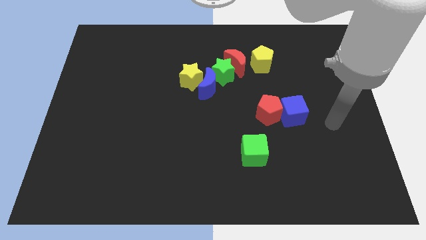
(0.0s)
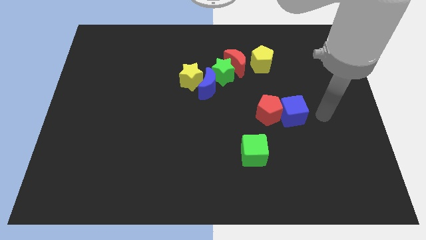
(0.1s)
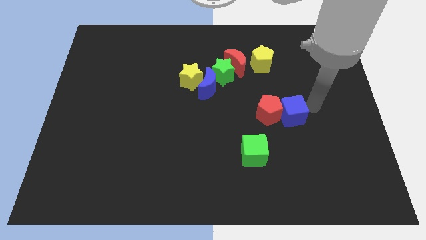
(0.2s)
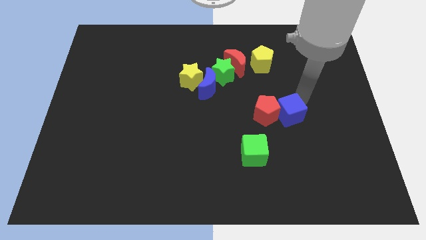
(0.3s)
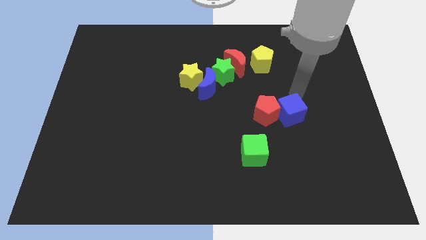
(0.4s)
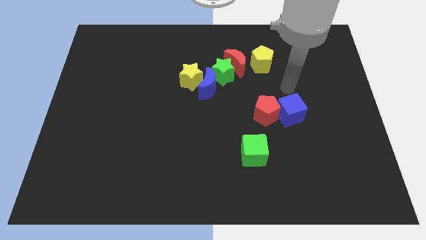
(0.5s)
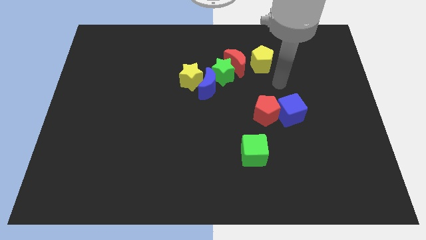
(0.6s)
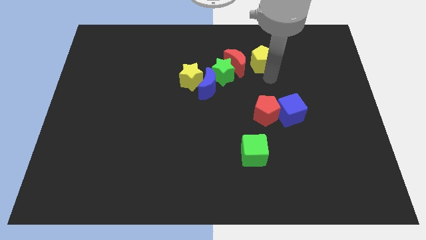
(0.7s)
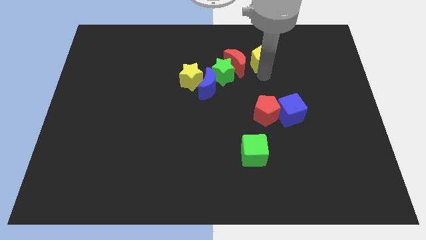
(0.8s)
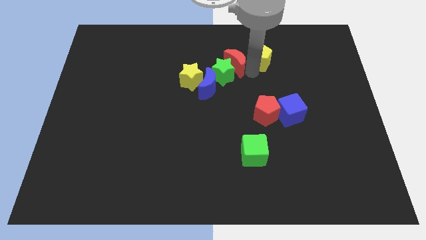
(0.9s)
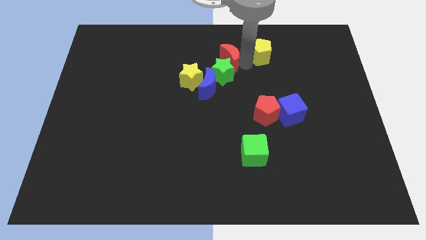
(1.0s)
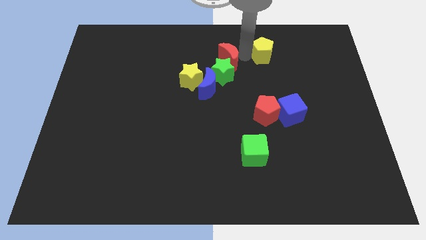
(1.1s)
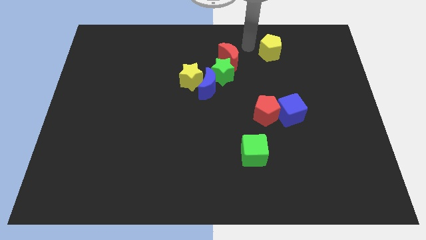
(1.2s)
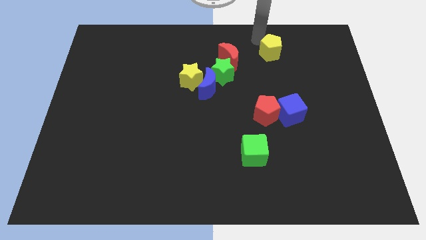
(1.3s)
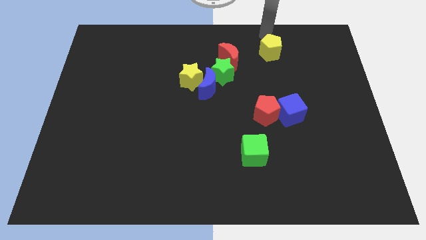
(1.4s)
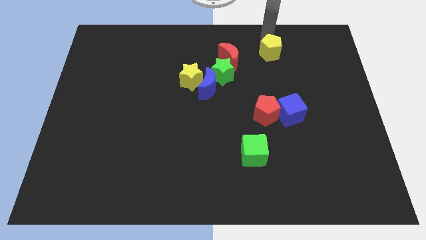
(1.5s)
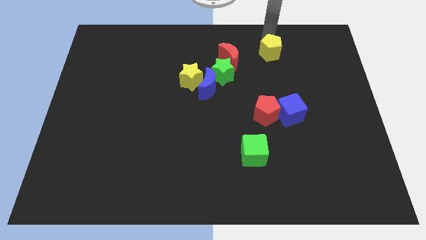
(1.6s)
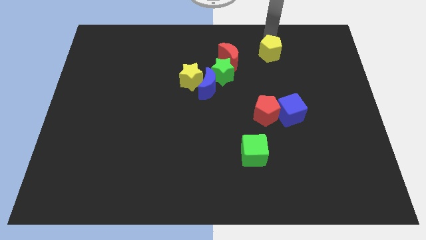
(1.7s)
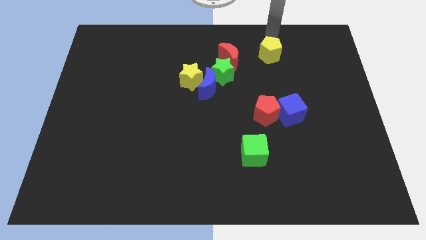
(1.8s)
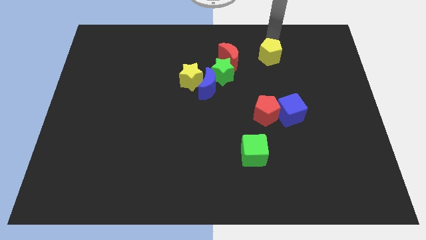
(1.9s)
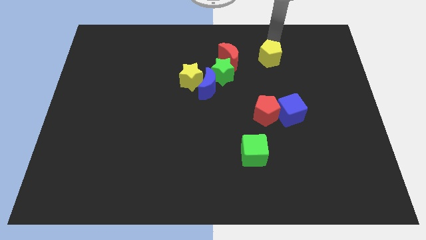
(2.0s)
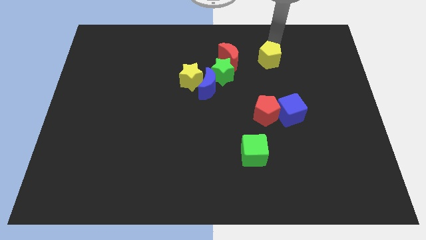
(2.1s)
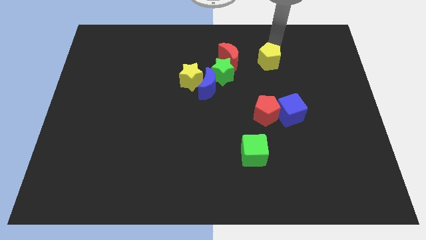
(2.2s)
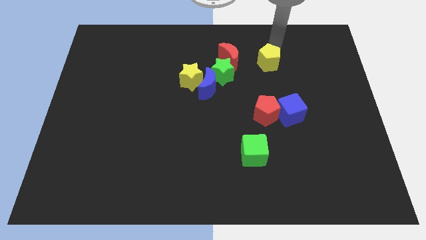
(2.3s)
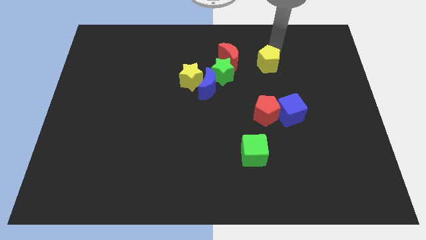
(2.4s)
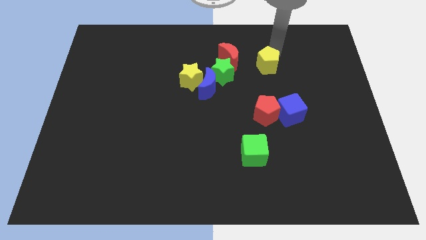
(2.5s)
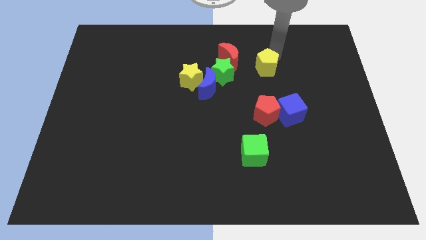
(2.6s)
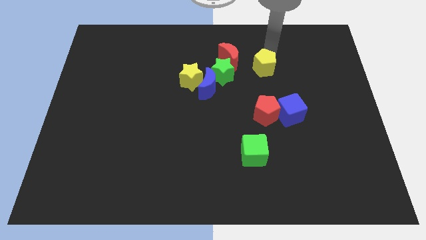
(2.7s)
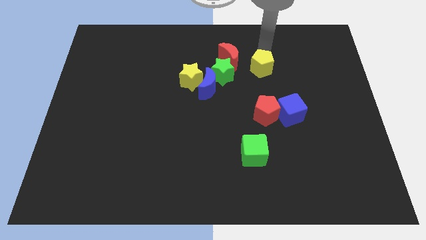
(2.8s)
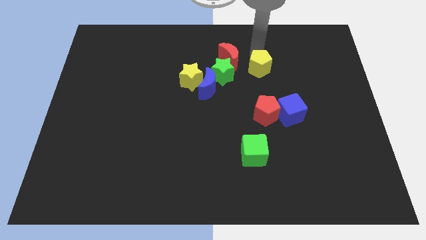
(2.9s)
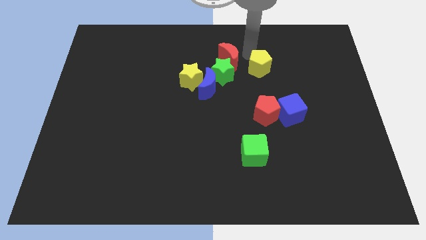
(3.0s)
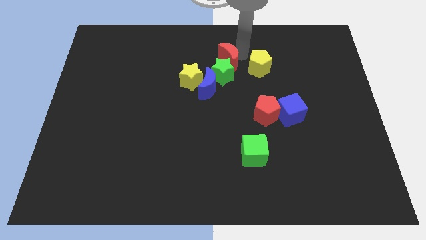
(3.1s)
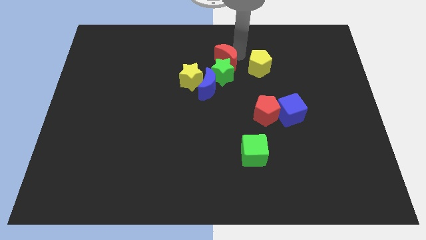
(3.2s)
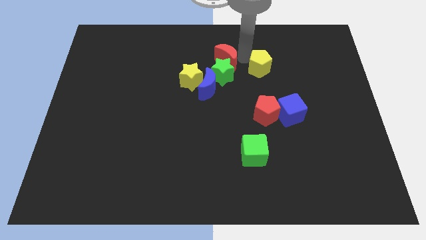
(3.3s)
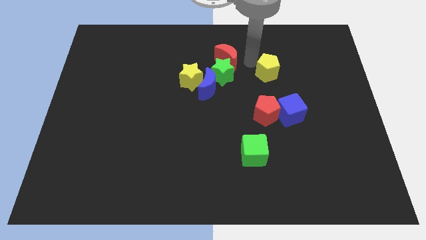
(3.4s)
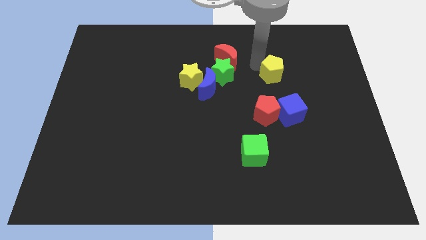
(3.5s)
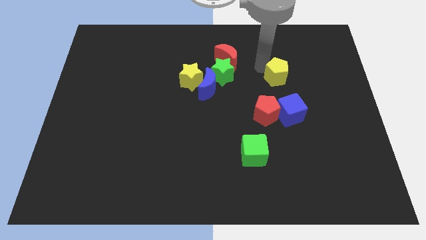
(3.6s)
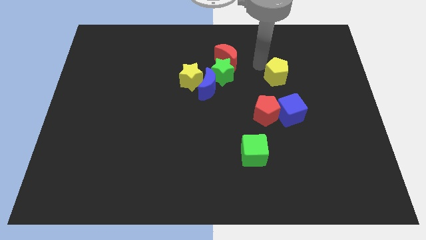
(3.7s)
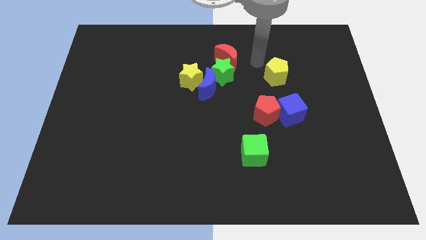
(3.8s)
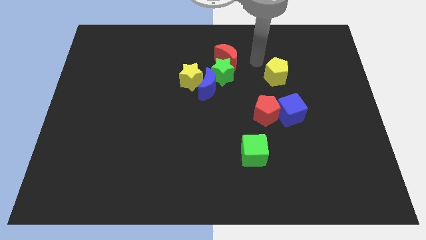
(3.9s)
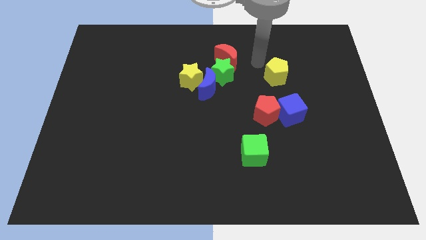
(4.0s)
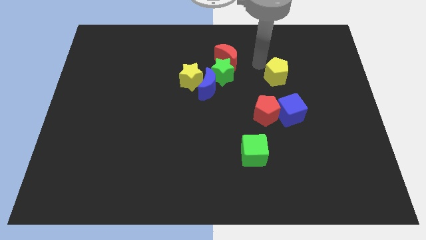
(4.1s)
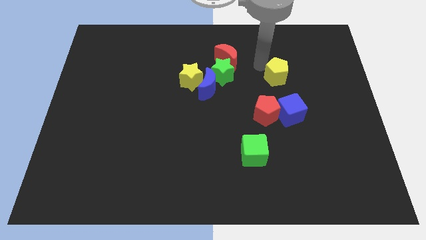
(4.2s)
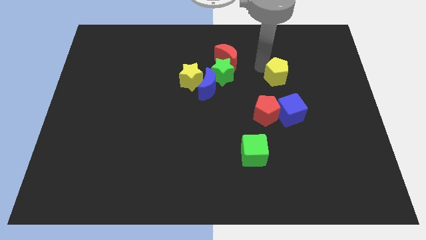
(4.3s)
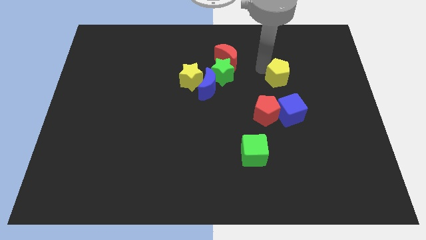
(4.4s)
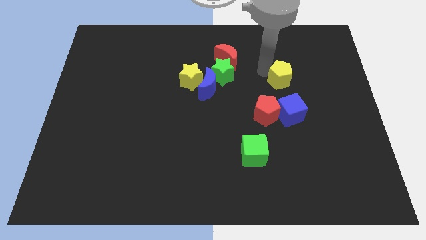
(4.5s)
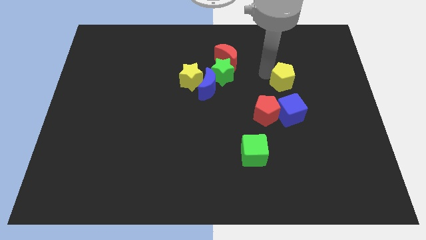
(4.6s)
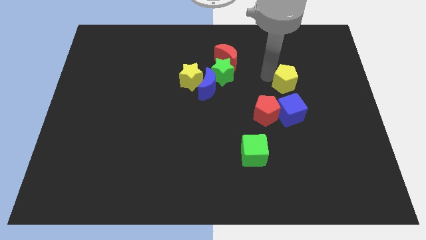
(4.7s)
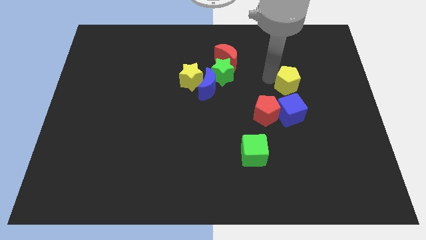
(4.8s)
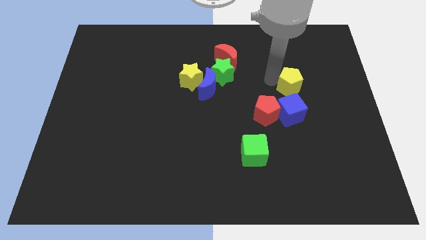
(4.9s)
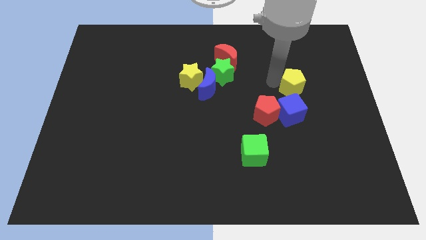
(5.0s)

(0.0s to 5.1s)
move the yellow pentagon diagonally up and to the right of the blue cube

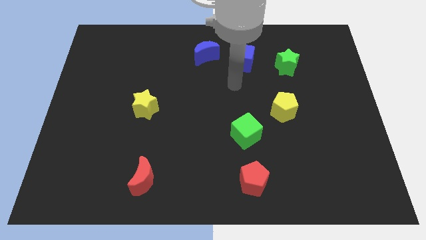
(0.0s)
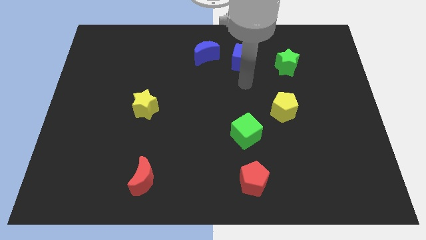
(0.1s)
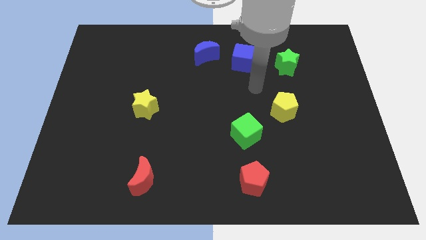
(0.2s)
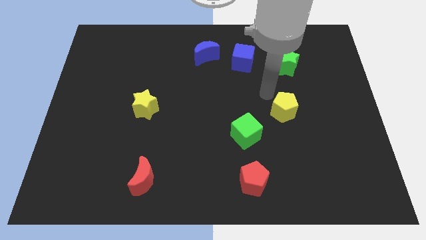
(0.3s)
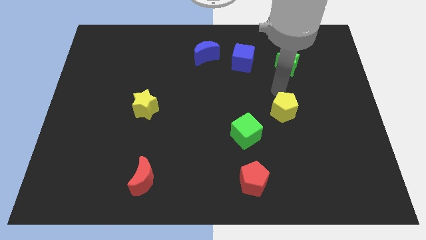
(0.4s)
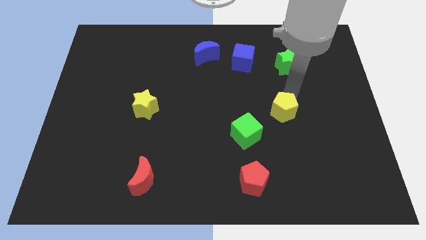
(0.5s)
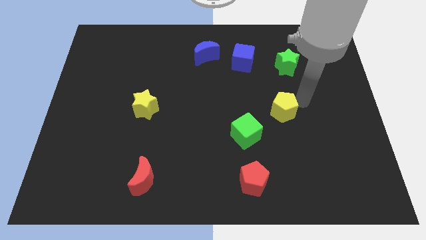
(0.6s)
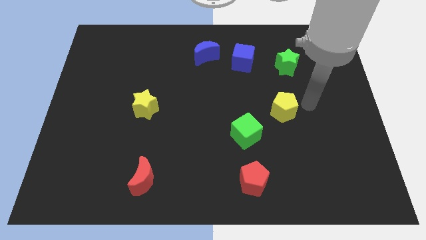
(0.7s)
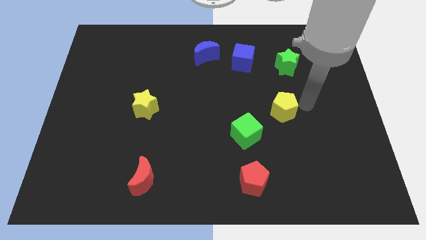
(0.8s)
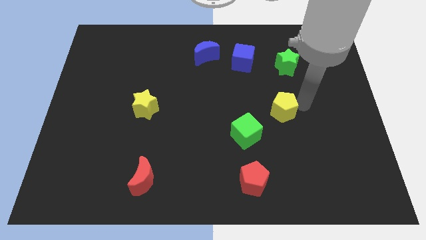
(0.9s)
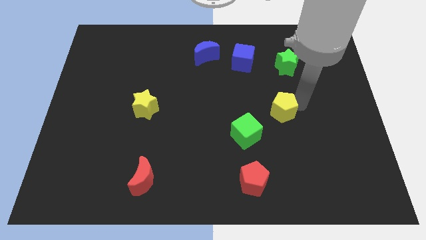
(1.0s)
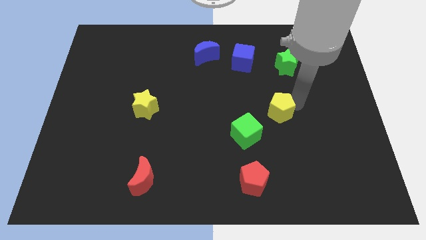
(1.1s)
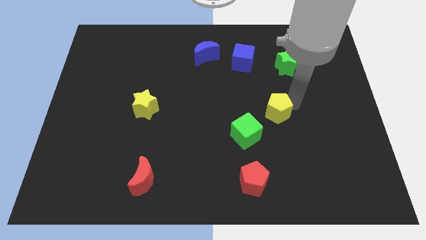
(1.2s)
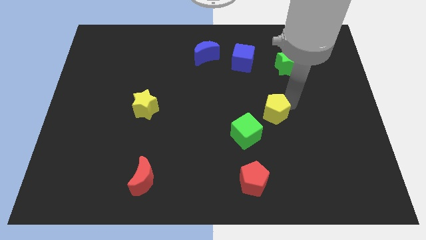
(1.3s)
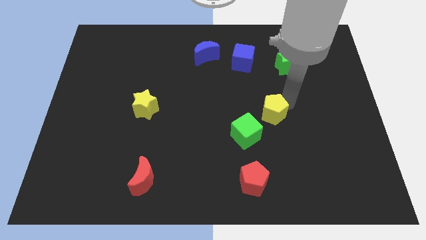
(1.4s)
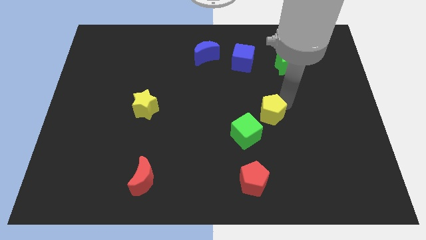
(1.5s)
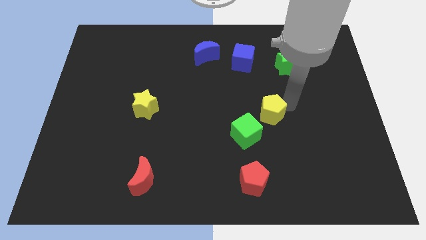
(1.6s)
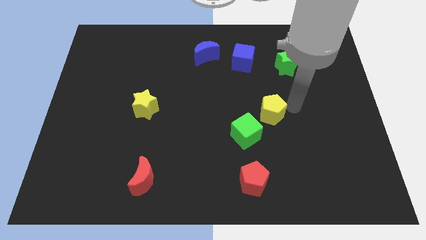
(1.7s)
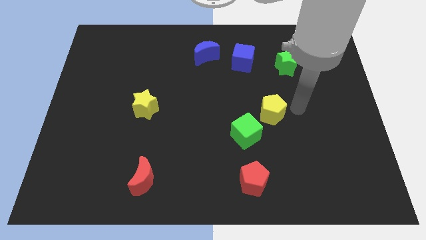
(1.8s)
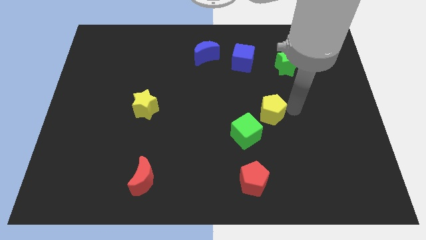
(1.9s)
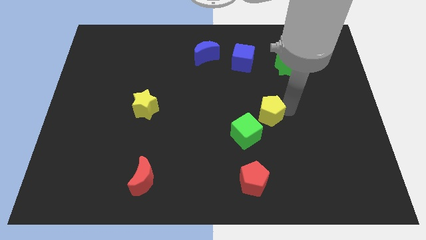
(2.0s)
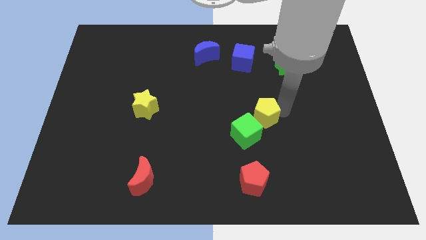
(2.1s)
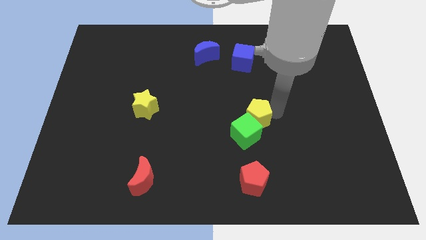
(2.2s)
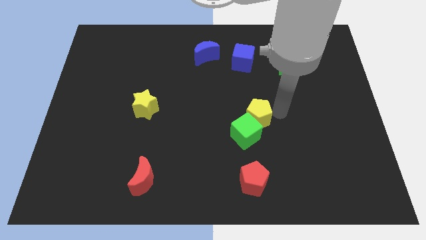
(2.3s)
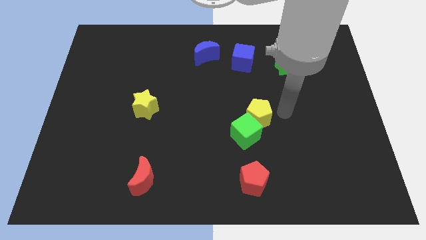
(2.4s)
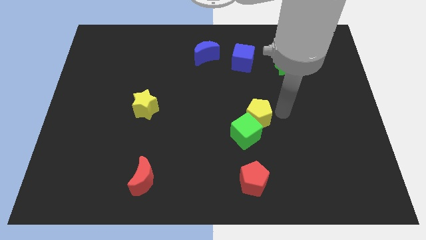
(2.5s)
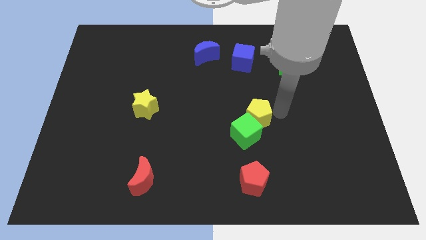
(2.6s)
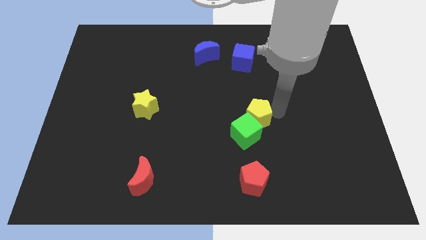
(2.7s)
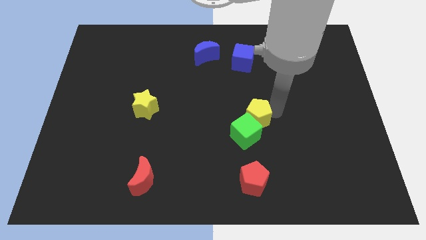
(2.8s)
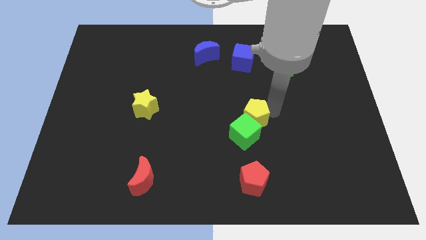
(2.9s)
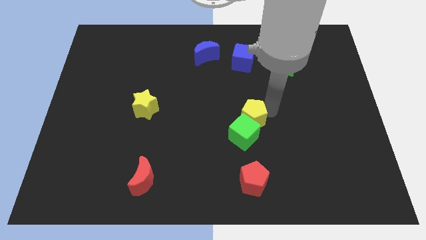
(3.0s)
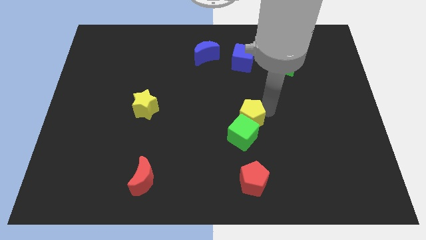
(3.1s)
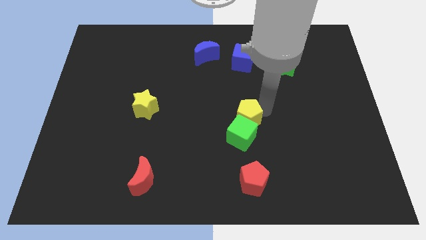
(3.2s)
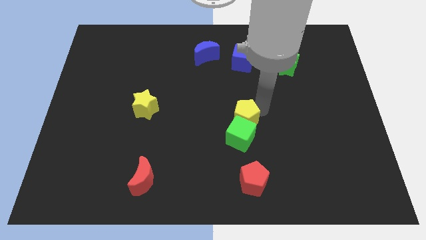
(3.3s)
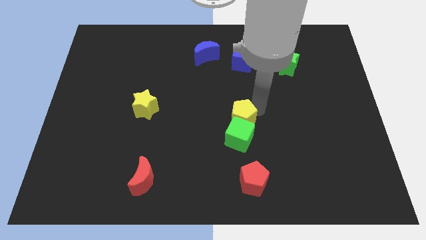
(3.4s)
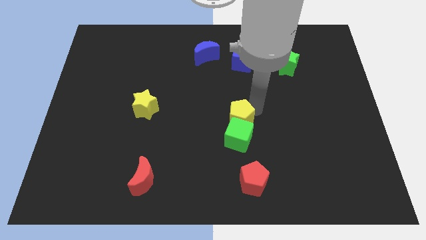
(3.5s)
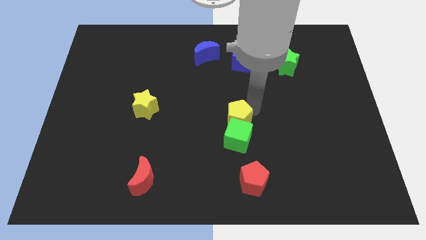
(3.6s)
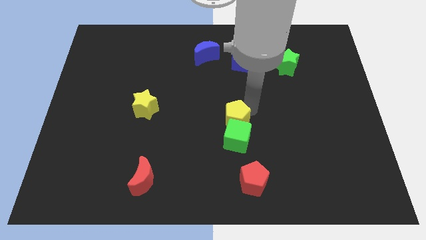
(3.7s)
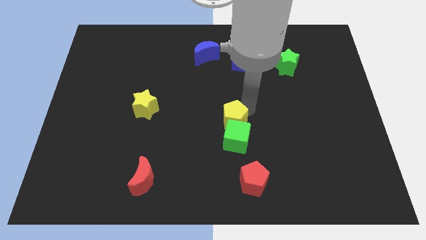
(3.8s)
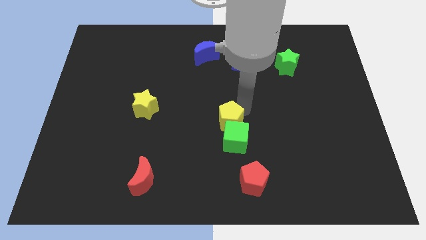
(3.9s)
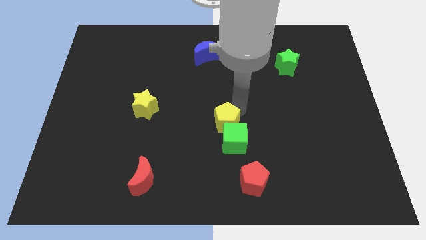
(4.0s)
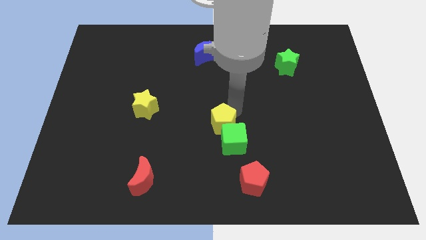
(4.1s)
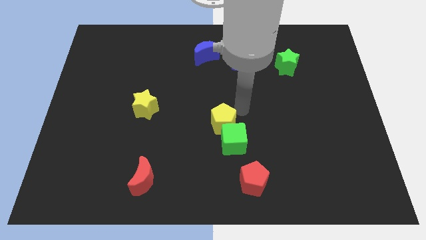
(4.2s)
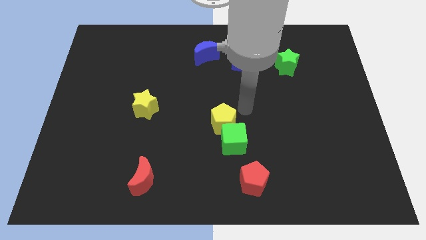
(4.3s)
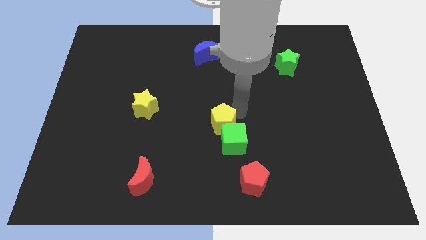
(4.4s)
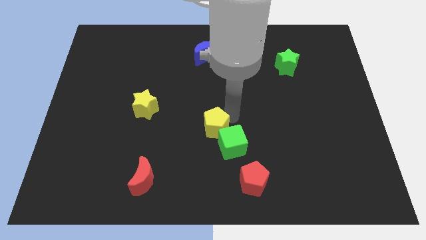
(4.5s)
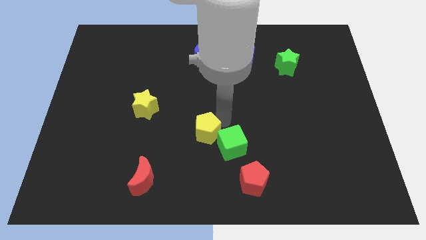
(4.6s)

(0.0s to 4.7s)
push the yellow pentagon to the left side of the green cube
